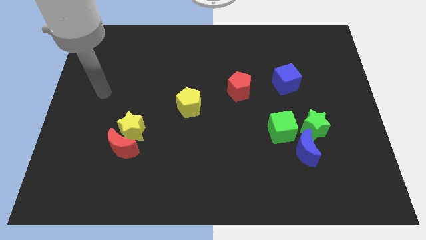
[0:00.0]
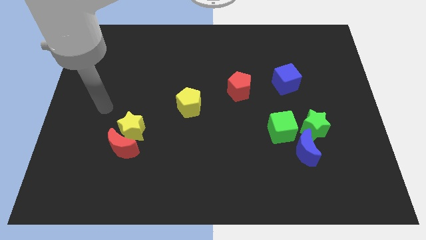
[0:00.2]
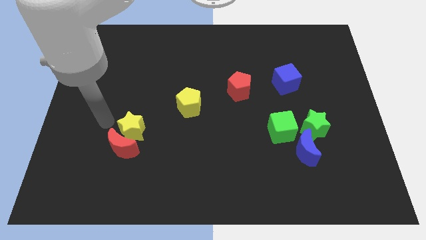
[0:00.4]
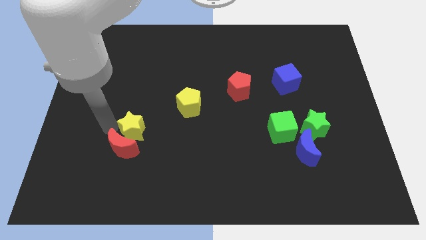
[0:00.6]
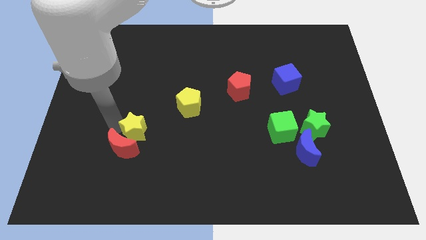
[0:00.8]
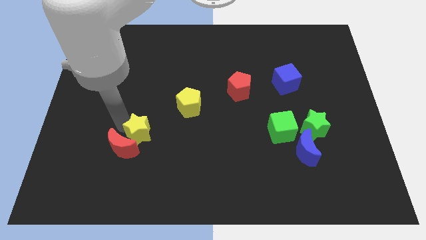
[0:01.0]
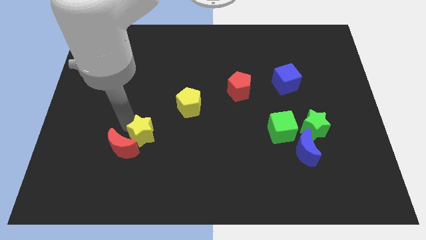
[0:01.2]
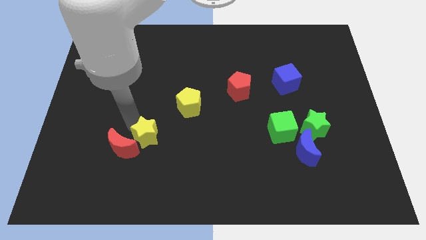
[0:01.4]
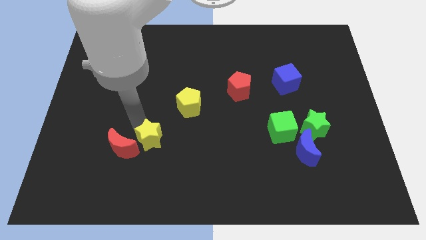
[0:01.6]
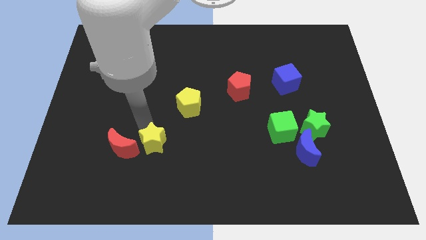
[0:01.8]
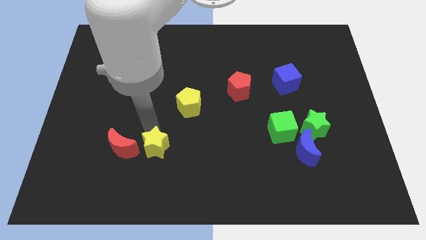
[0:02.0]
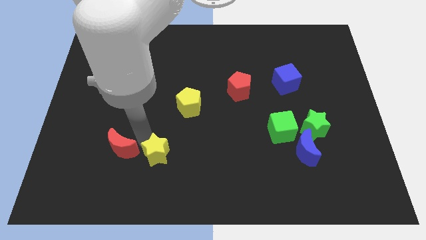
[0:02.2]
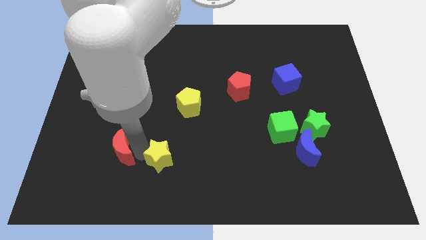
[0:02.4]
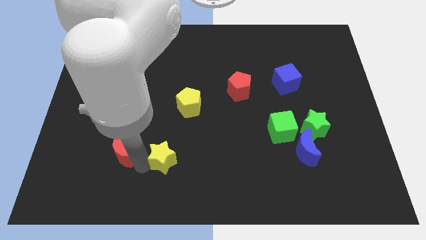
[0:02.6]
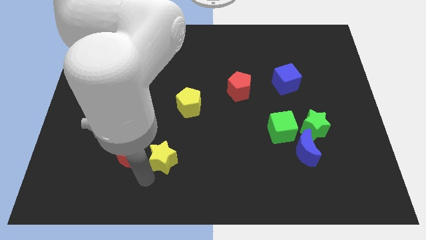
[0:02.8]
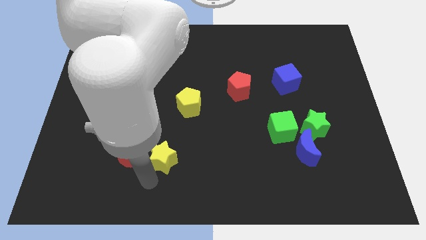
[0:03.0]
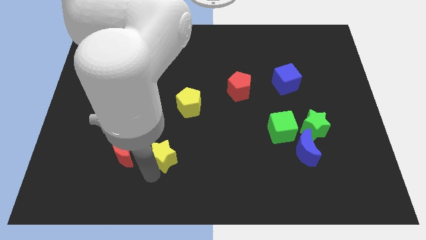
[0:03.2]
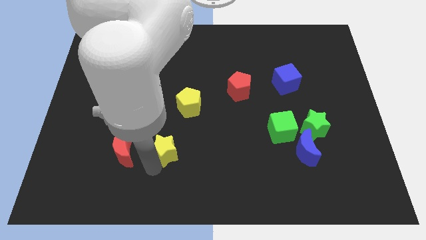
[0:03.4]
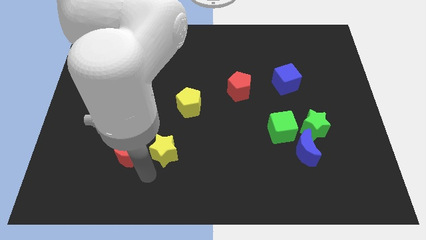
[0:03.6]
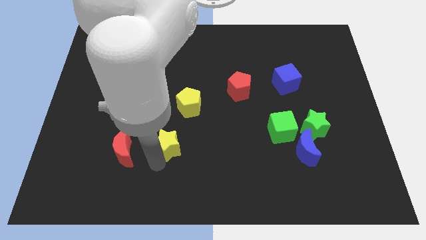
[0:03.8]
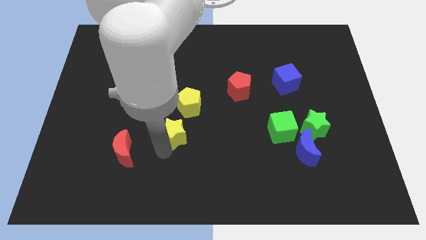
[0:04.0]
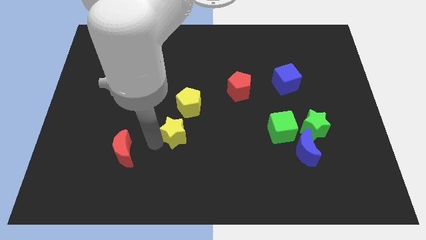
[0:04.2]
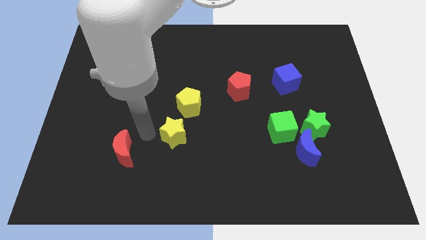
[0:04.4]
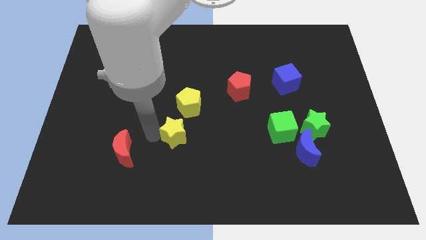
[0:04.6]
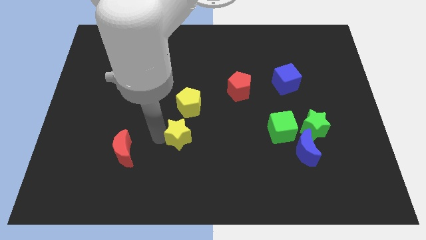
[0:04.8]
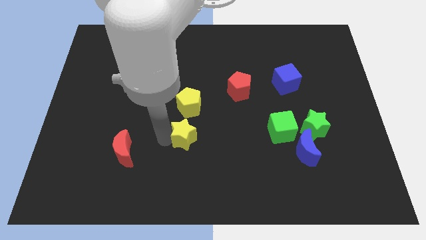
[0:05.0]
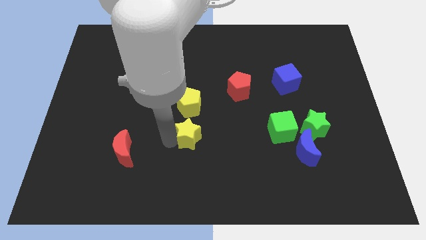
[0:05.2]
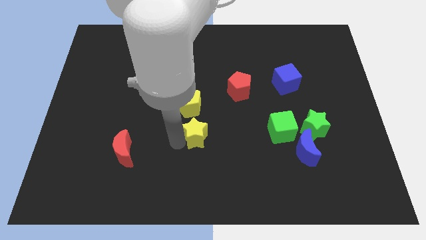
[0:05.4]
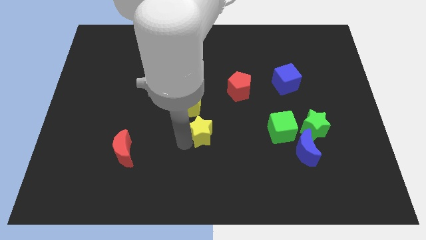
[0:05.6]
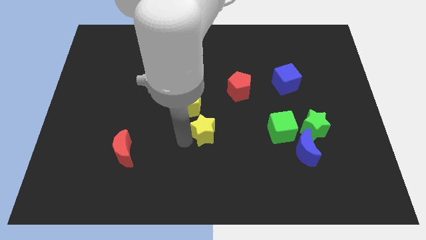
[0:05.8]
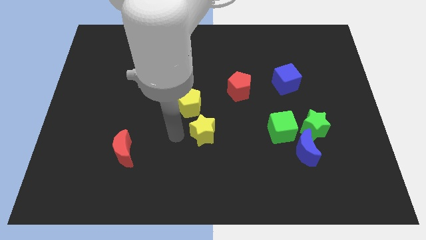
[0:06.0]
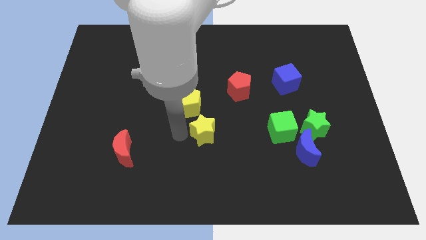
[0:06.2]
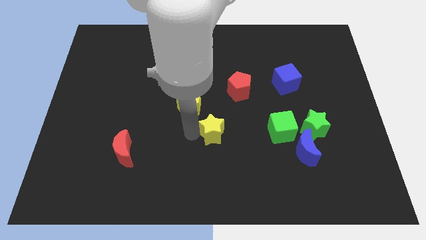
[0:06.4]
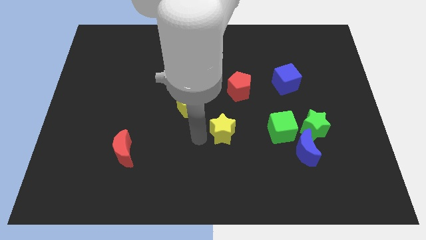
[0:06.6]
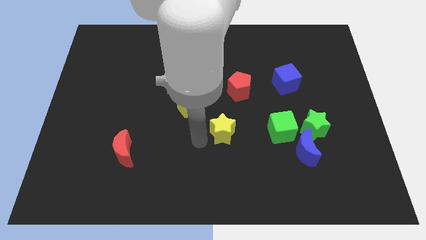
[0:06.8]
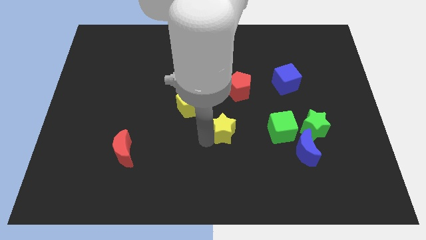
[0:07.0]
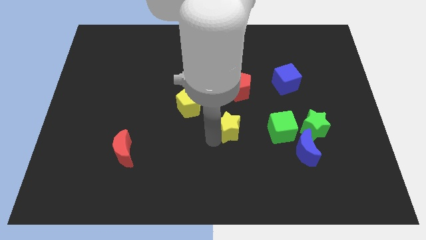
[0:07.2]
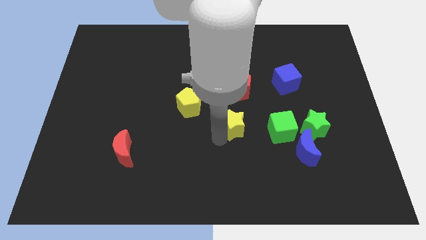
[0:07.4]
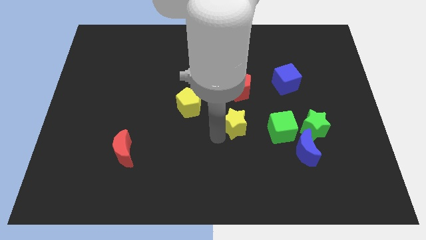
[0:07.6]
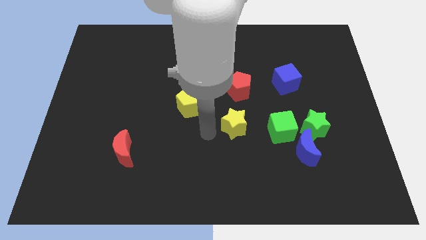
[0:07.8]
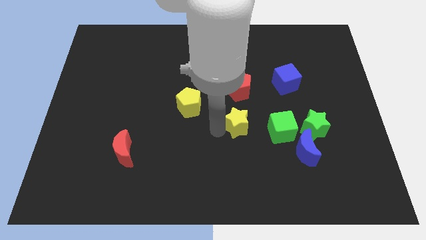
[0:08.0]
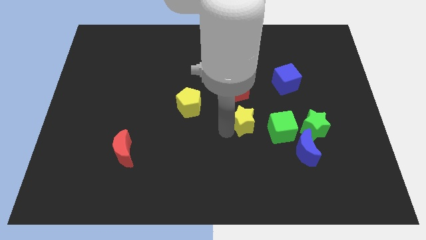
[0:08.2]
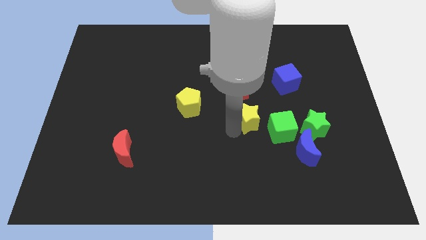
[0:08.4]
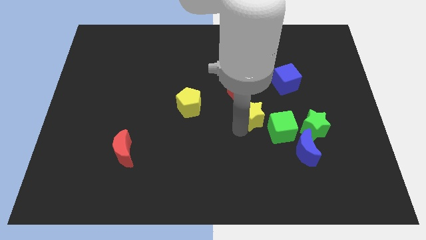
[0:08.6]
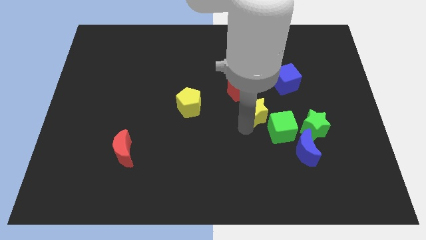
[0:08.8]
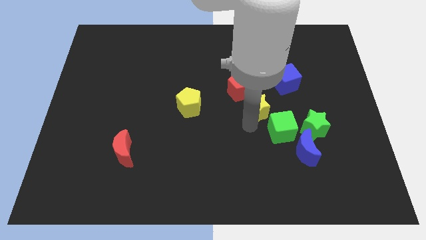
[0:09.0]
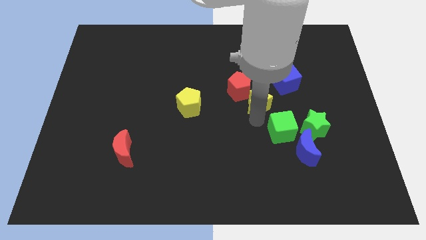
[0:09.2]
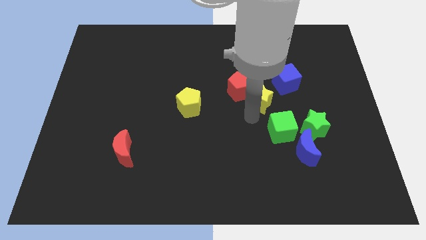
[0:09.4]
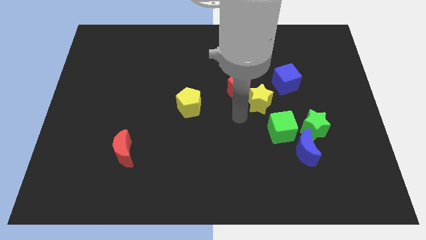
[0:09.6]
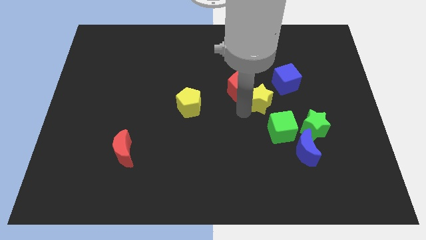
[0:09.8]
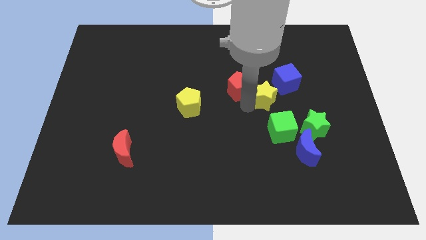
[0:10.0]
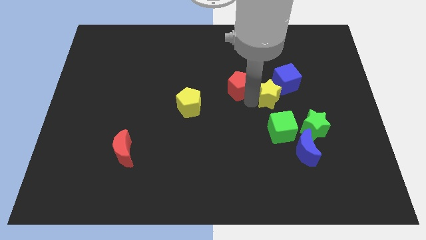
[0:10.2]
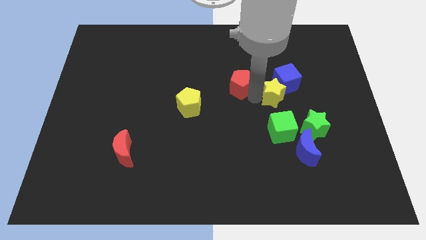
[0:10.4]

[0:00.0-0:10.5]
slide the yellow star to the blue cube

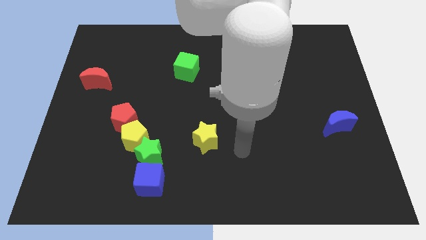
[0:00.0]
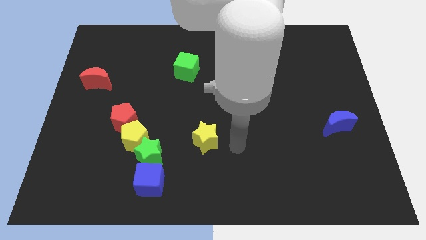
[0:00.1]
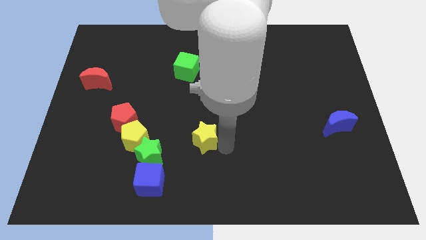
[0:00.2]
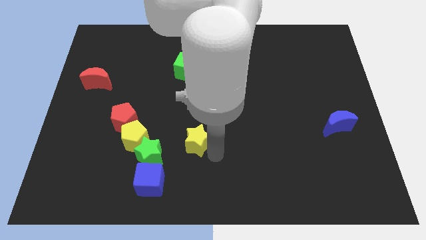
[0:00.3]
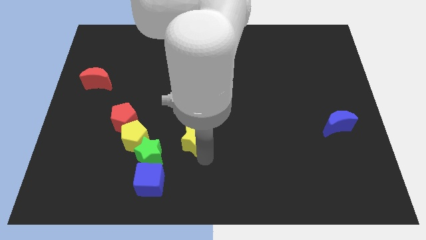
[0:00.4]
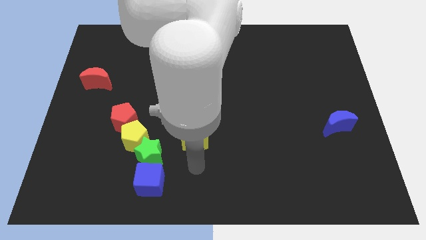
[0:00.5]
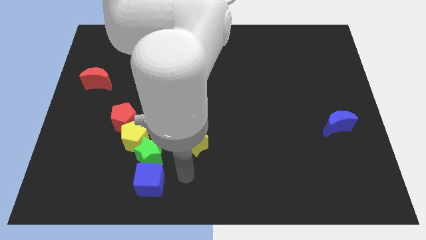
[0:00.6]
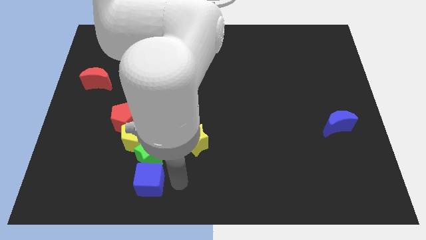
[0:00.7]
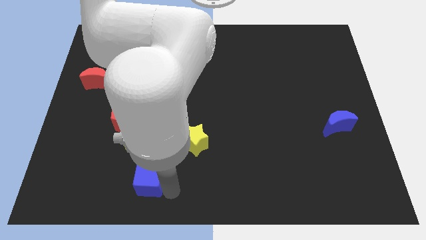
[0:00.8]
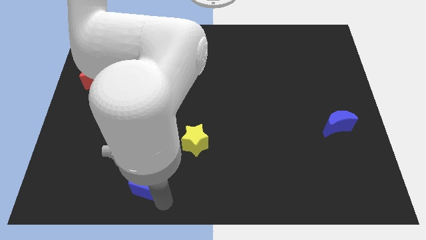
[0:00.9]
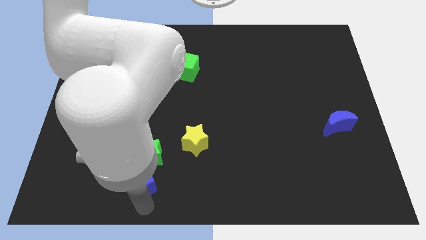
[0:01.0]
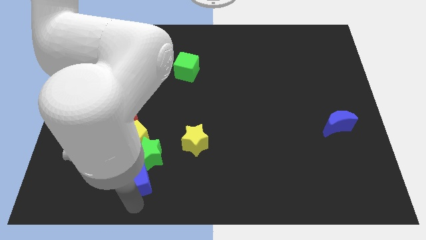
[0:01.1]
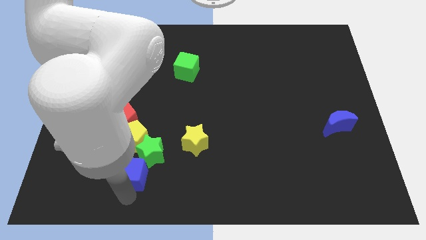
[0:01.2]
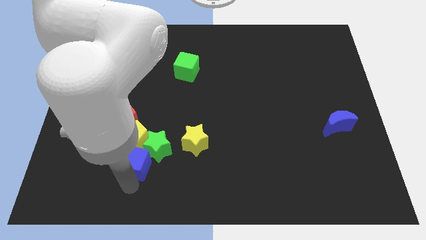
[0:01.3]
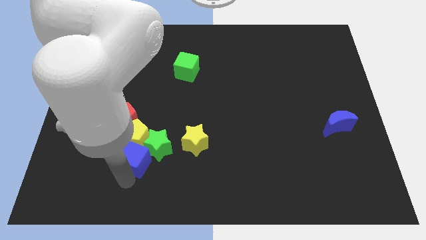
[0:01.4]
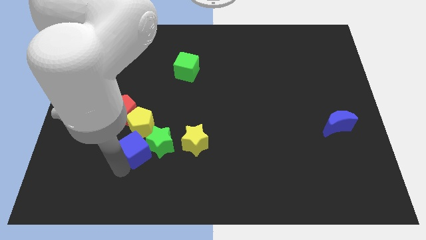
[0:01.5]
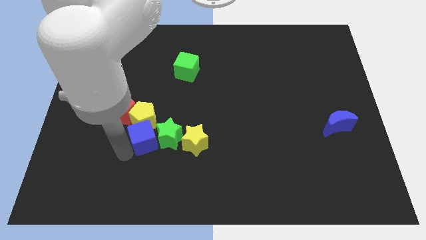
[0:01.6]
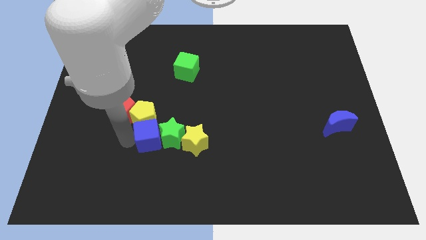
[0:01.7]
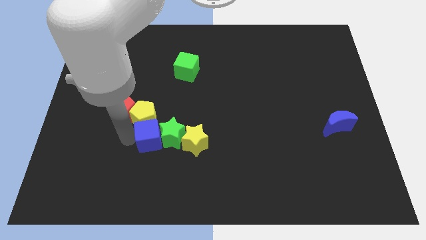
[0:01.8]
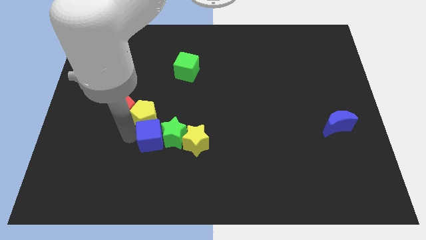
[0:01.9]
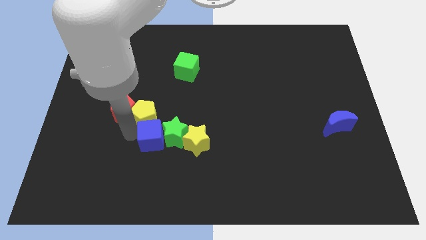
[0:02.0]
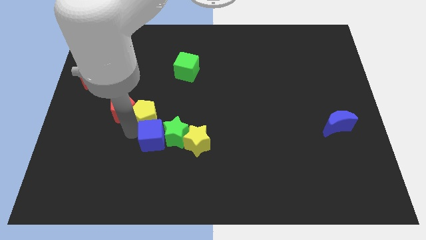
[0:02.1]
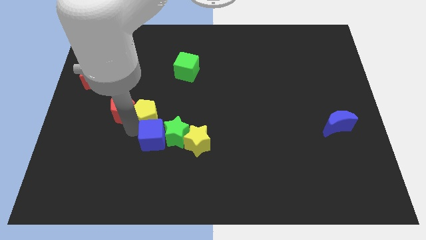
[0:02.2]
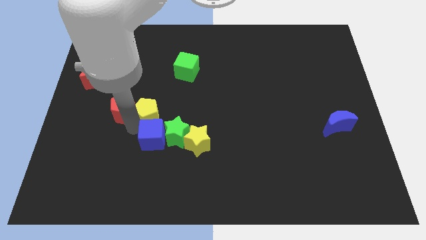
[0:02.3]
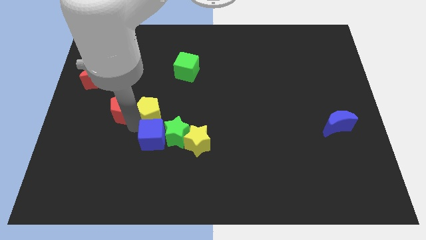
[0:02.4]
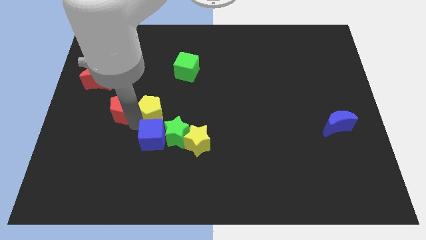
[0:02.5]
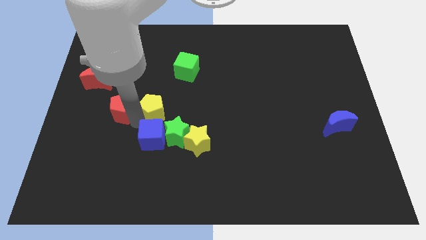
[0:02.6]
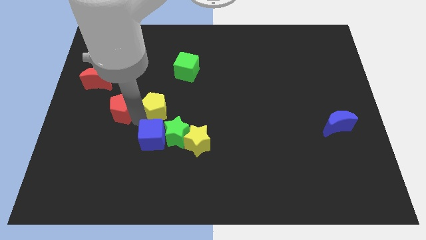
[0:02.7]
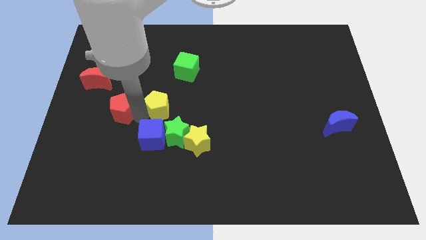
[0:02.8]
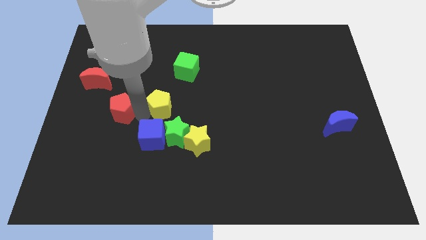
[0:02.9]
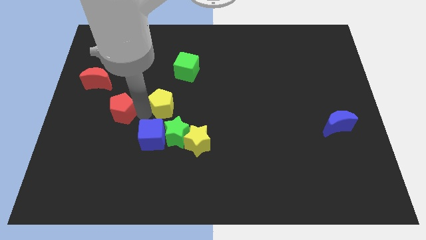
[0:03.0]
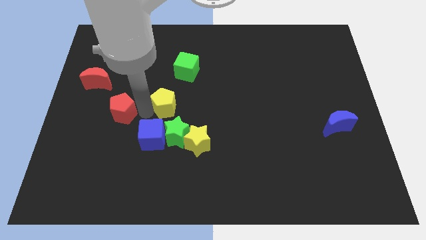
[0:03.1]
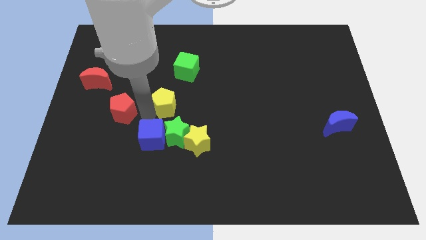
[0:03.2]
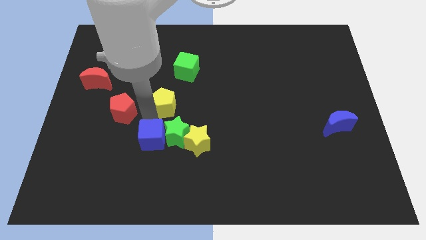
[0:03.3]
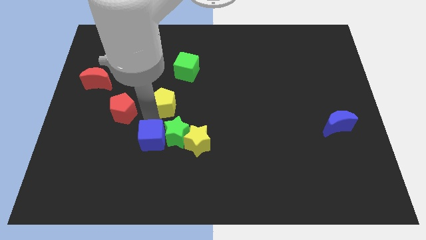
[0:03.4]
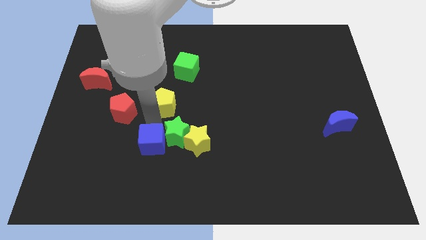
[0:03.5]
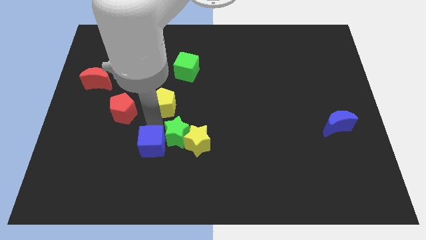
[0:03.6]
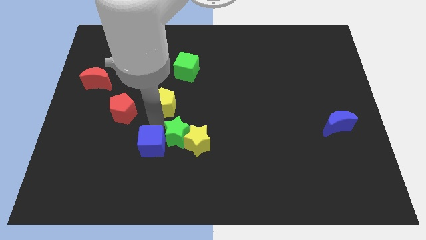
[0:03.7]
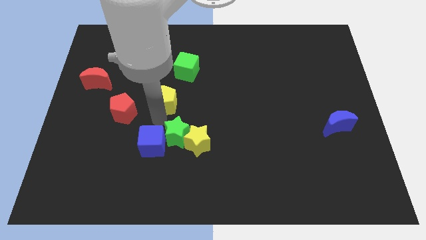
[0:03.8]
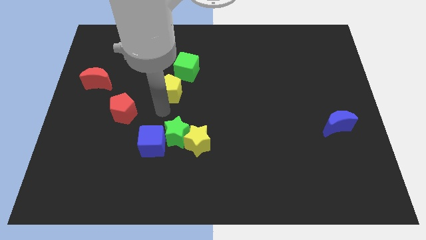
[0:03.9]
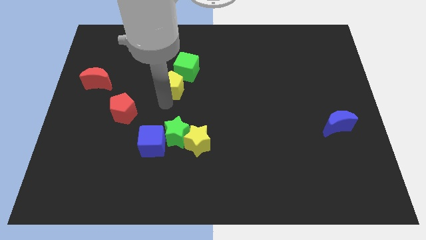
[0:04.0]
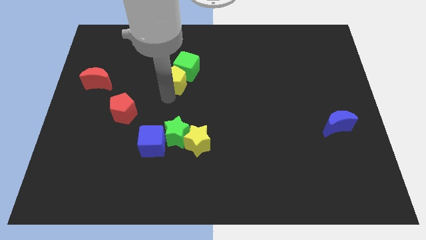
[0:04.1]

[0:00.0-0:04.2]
slide the yellow pentagon to the green cube
